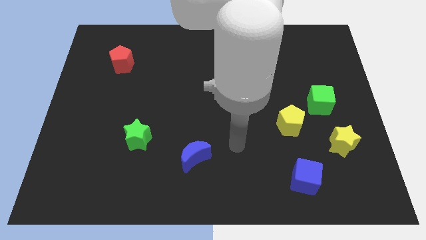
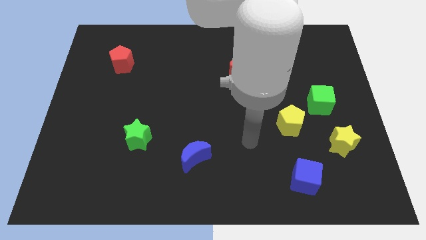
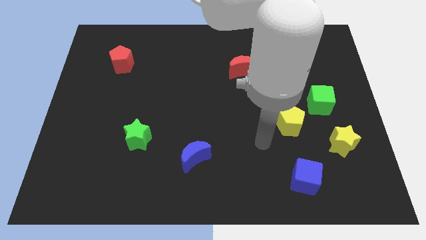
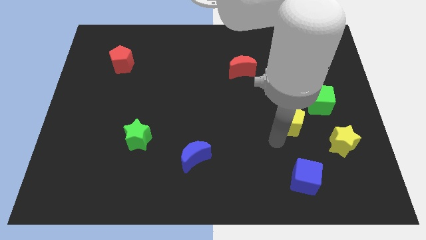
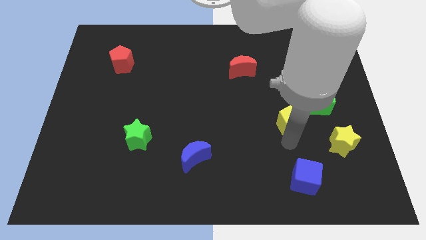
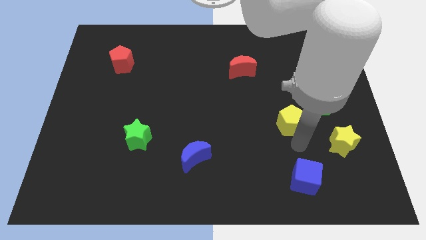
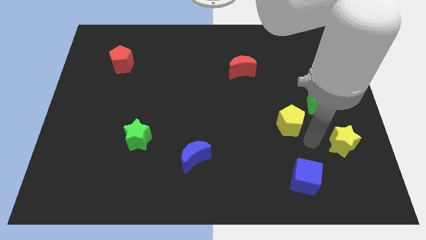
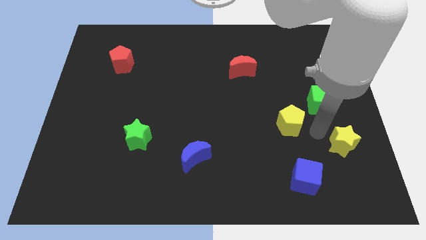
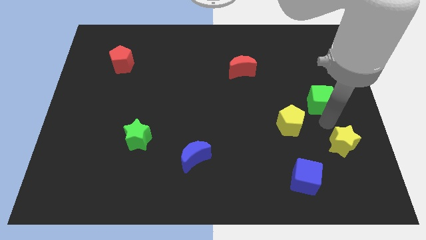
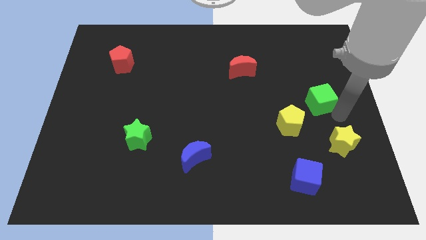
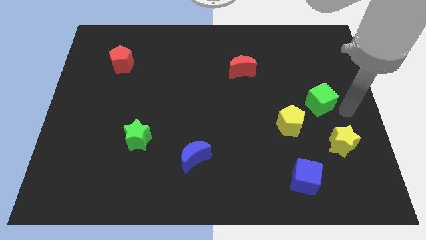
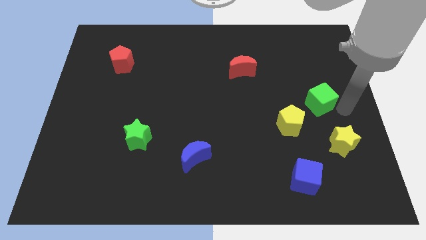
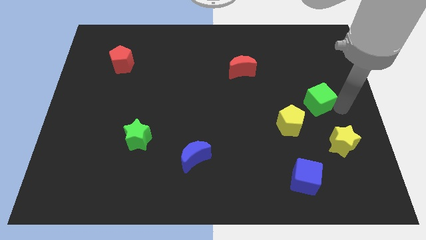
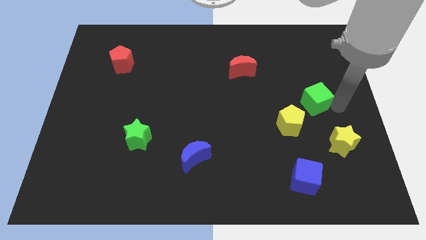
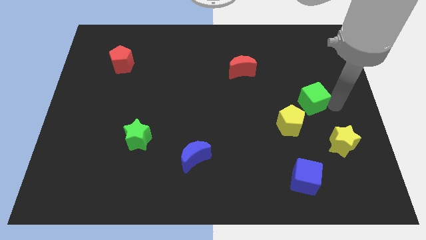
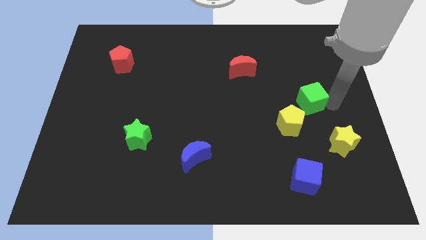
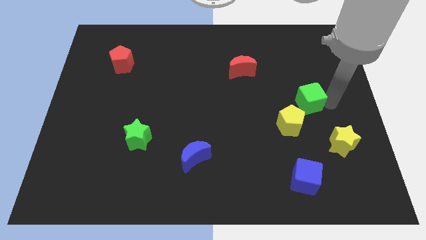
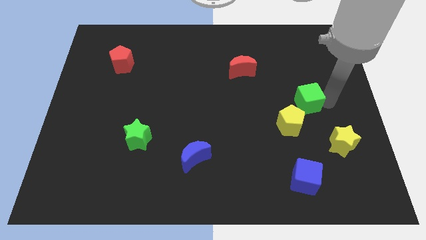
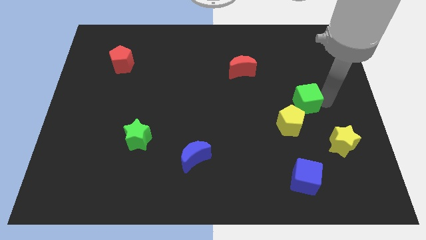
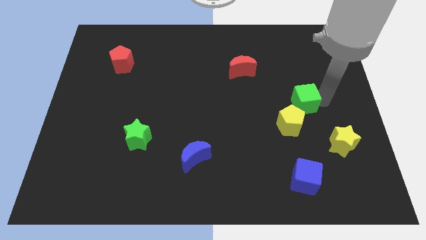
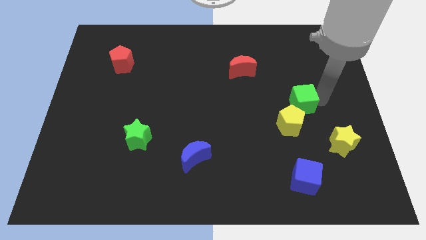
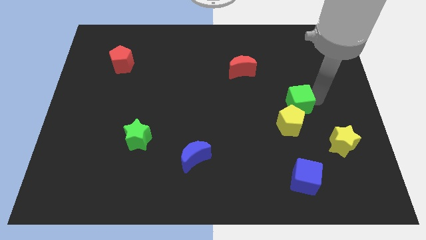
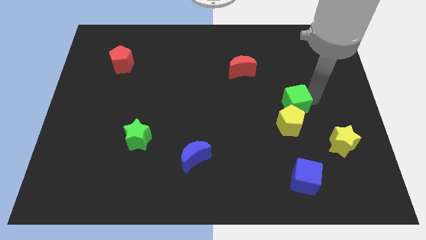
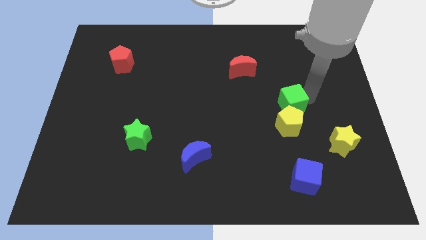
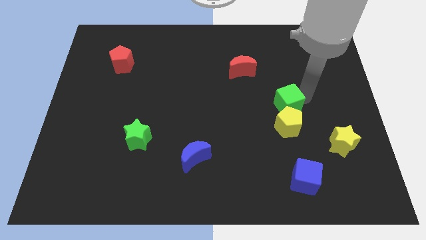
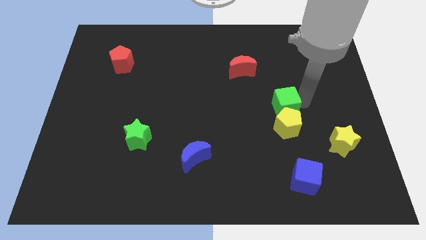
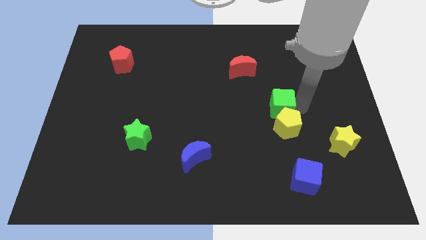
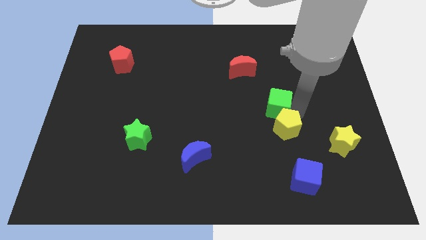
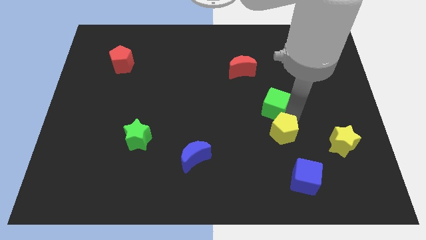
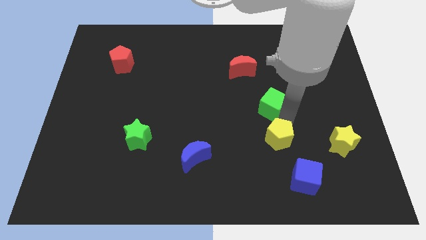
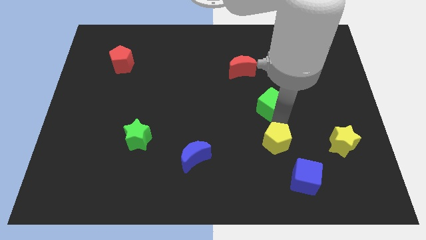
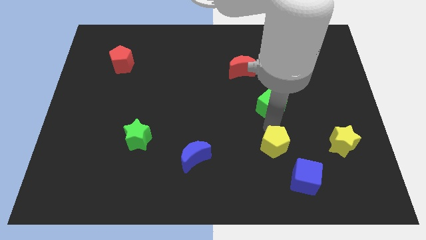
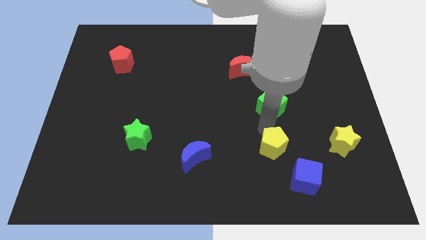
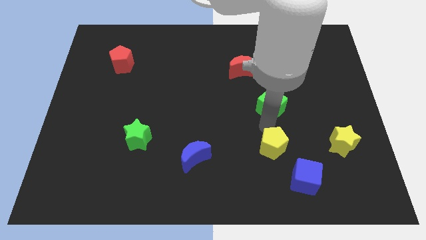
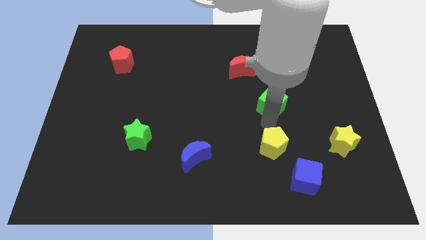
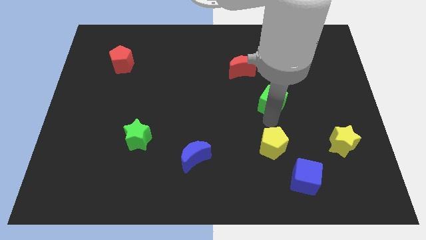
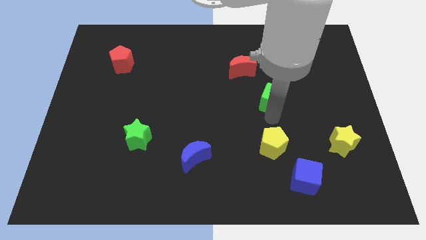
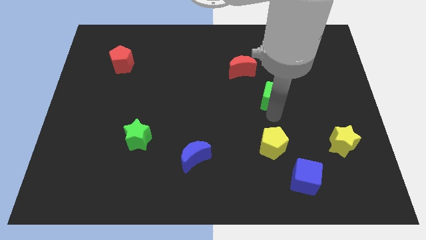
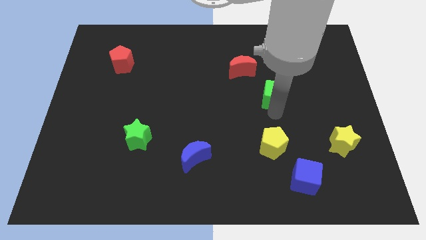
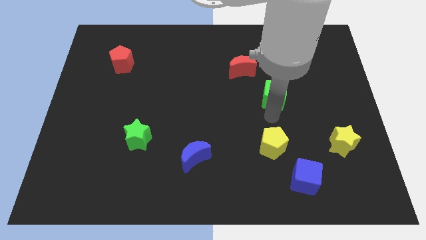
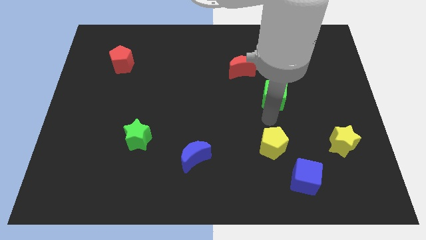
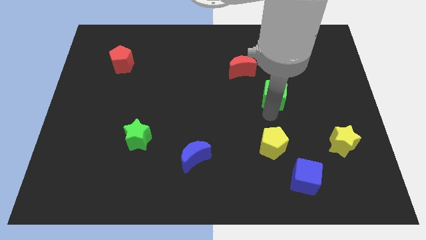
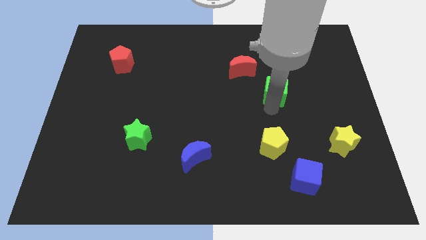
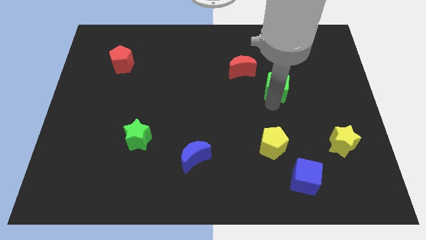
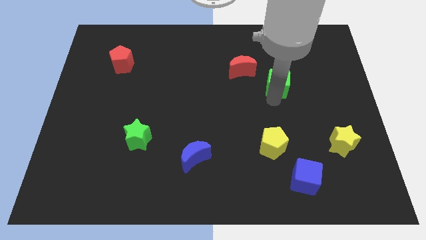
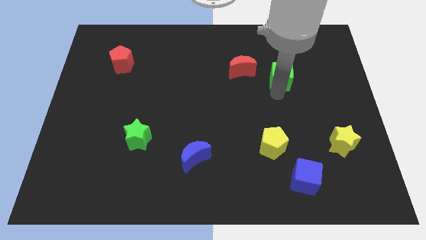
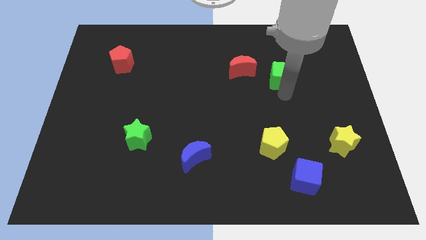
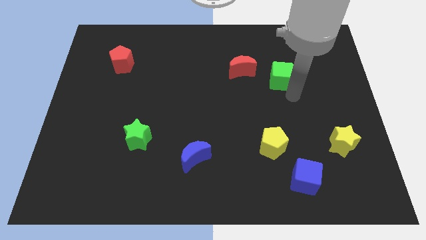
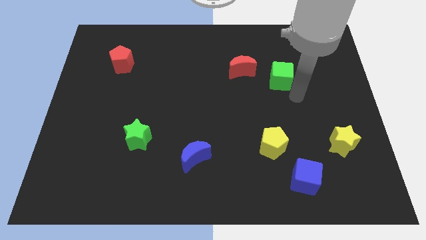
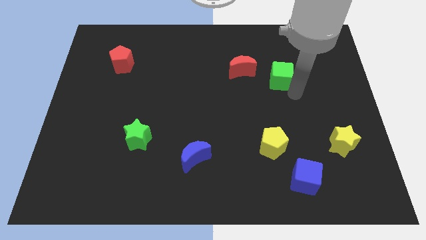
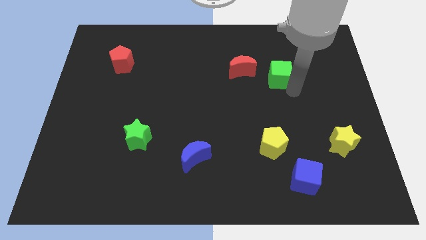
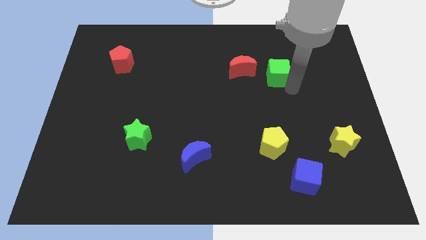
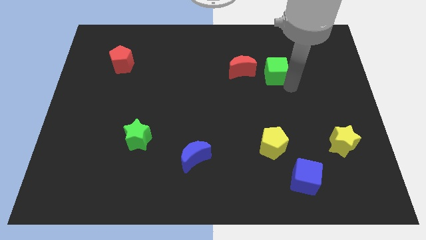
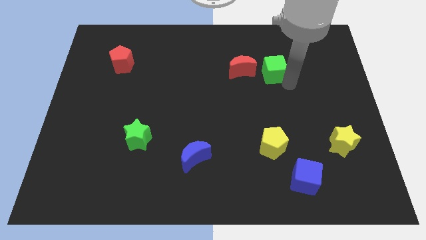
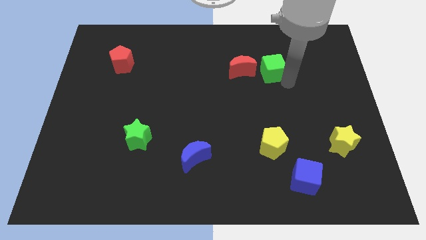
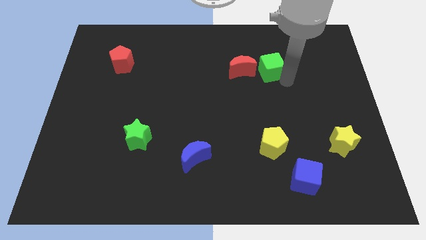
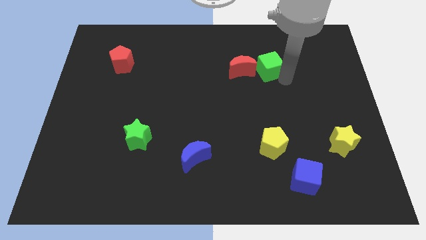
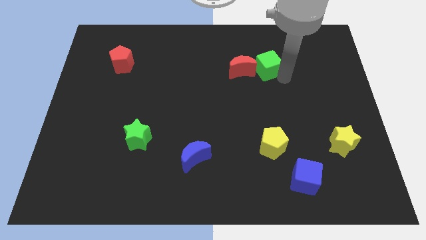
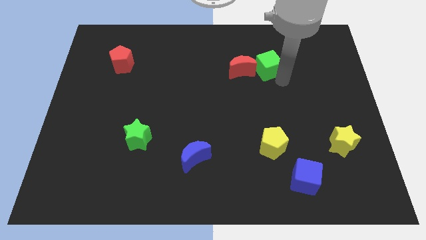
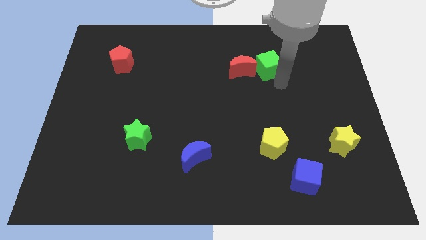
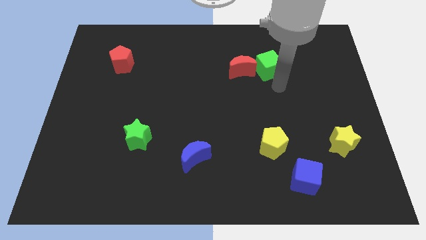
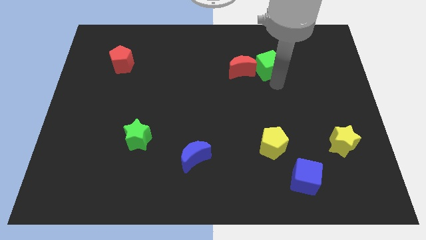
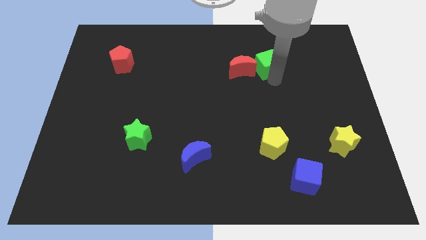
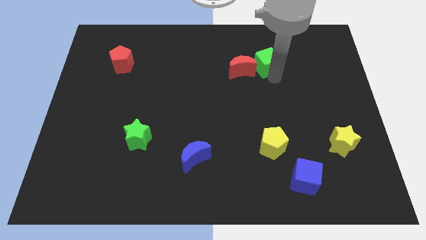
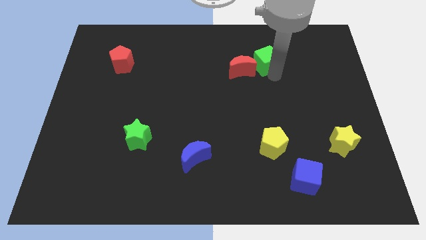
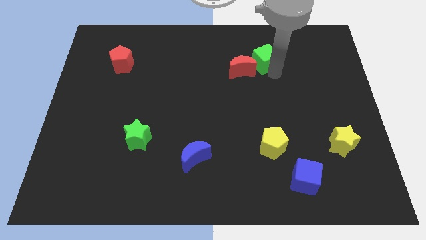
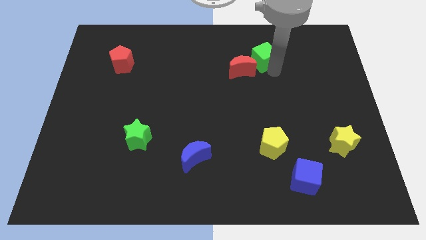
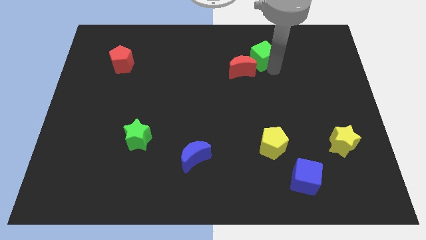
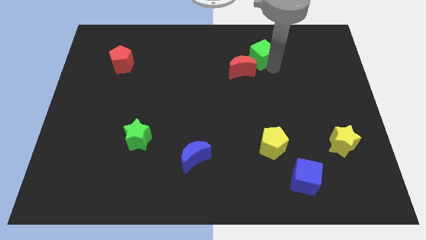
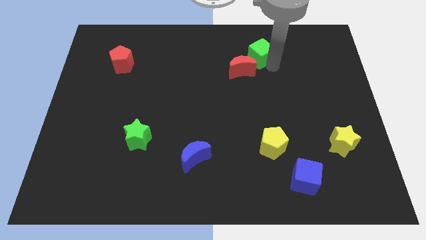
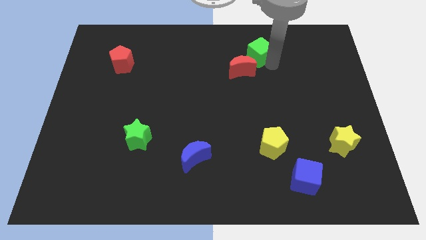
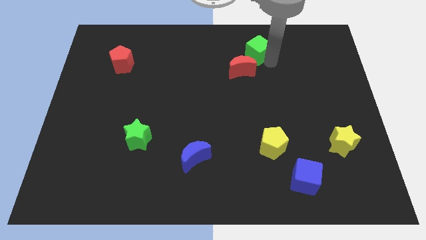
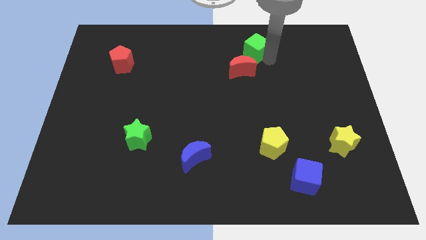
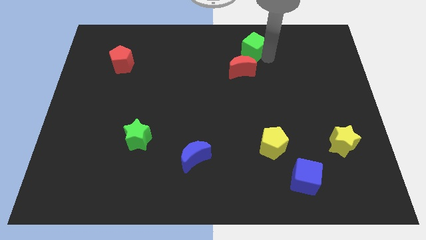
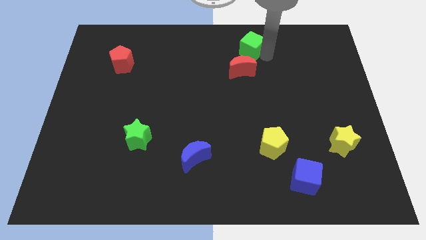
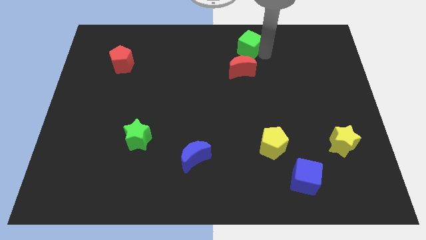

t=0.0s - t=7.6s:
put the green cube to the top
